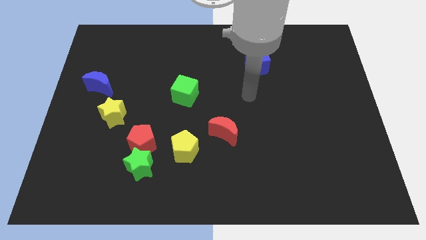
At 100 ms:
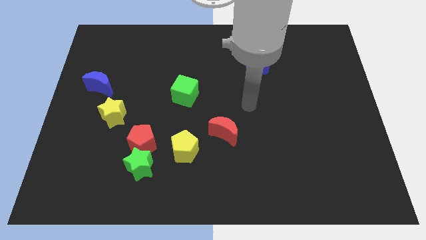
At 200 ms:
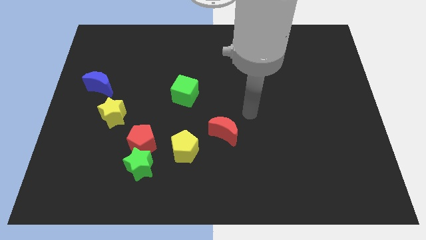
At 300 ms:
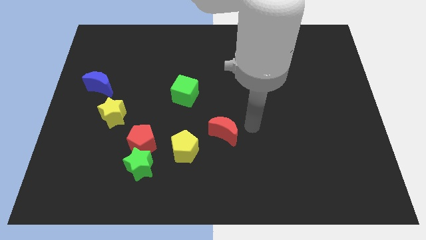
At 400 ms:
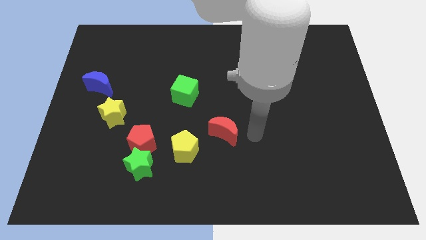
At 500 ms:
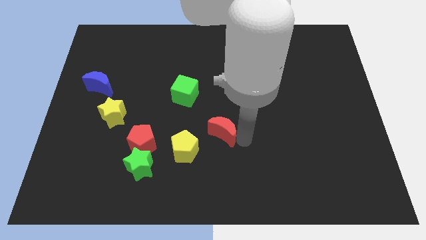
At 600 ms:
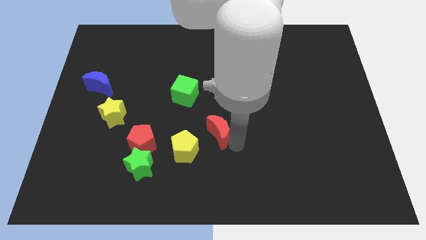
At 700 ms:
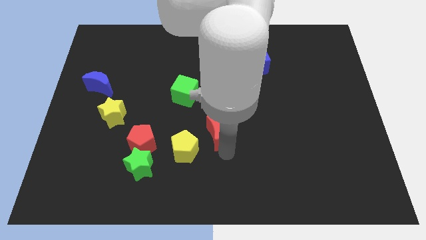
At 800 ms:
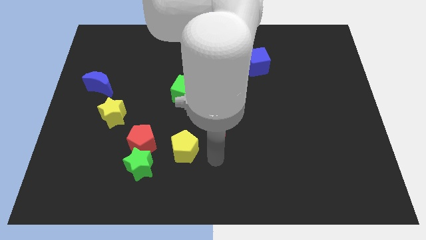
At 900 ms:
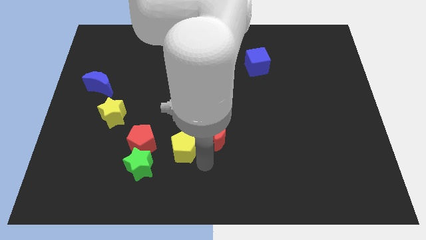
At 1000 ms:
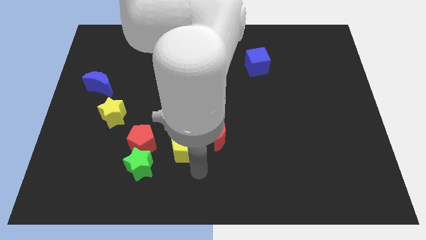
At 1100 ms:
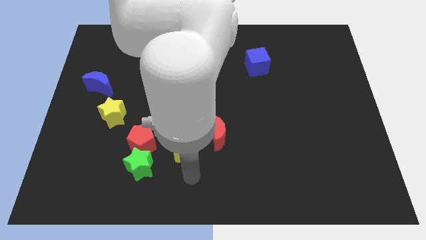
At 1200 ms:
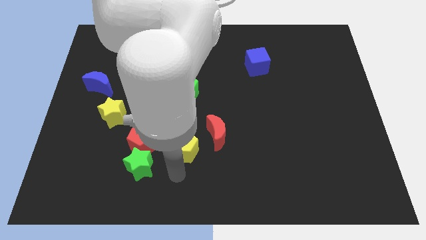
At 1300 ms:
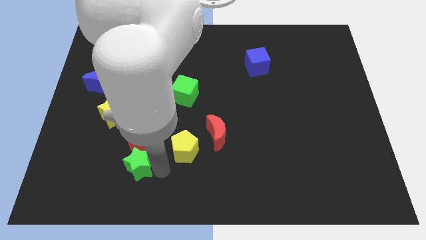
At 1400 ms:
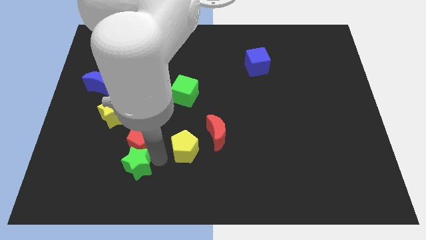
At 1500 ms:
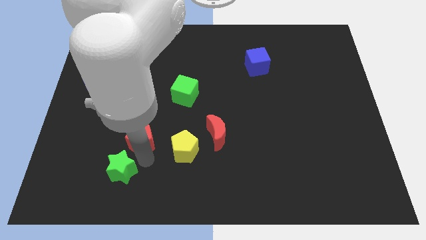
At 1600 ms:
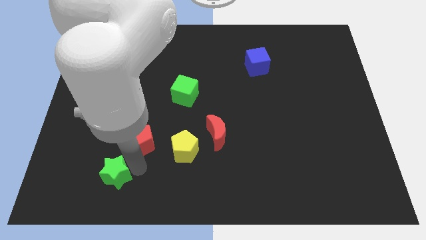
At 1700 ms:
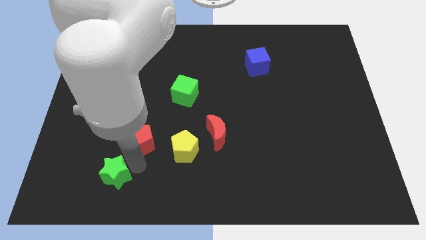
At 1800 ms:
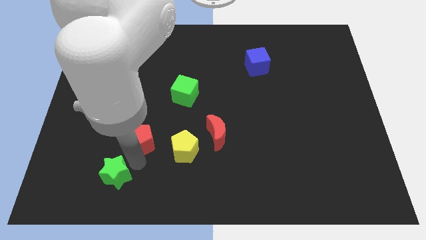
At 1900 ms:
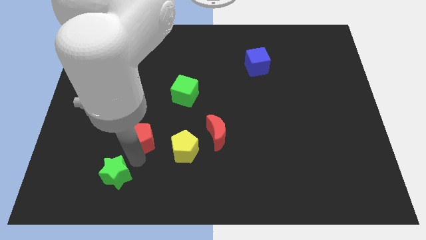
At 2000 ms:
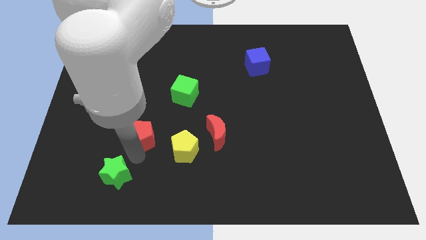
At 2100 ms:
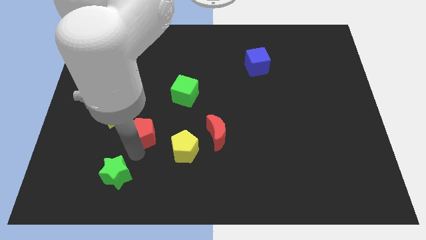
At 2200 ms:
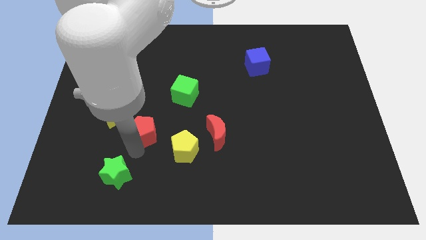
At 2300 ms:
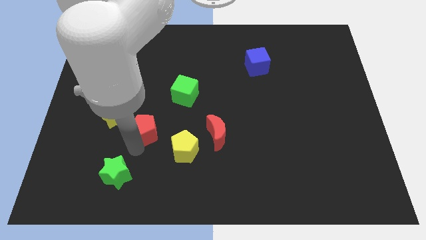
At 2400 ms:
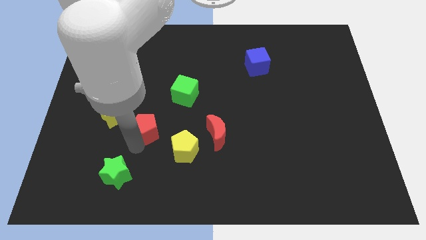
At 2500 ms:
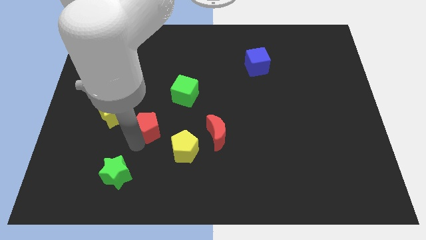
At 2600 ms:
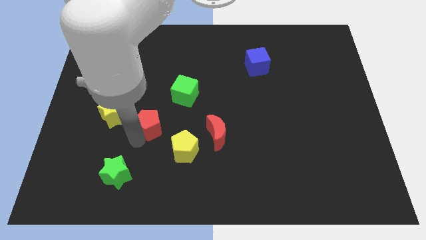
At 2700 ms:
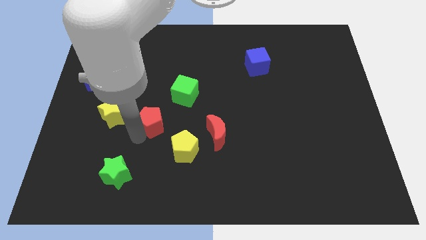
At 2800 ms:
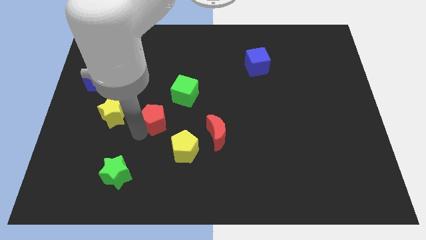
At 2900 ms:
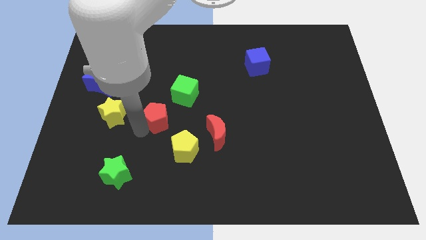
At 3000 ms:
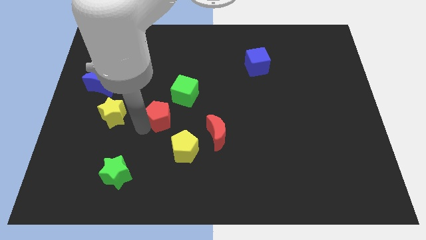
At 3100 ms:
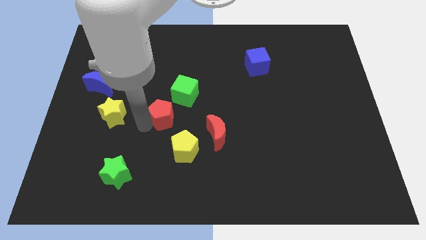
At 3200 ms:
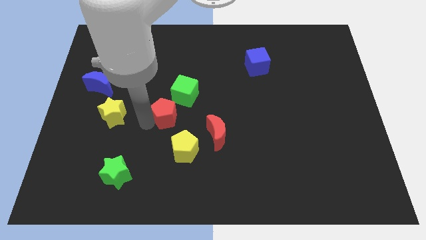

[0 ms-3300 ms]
slightly slide the red pentagon up

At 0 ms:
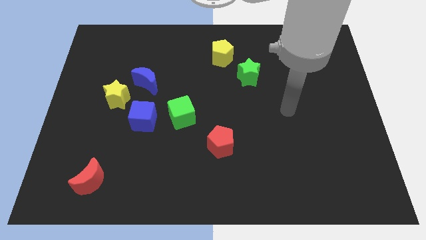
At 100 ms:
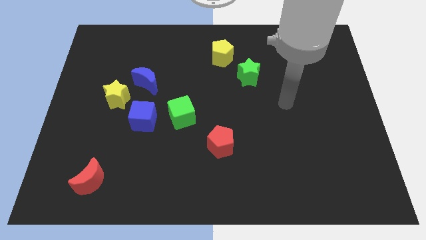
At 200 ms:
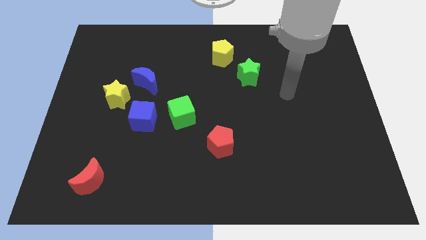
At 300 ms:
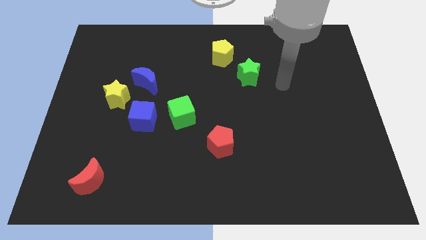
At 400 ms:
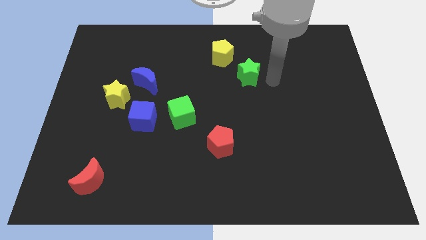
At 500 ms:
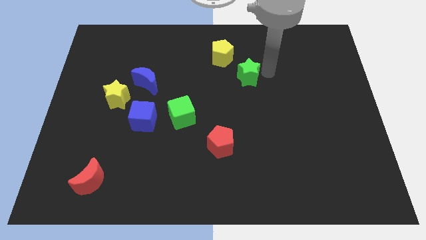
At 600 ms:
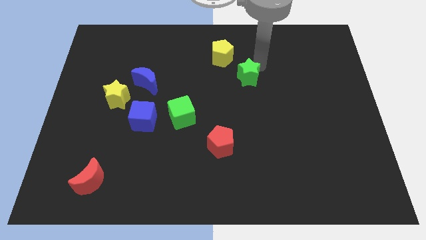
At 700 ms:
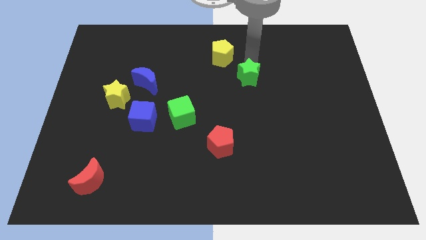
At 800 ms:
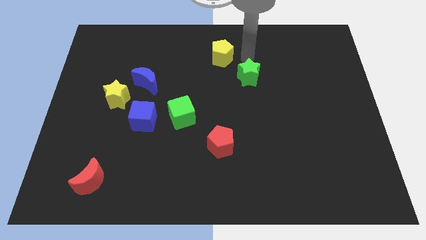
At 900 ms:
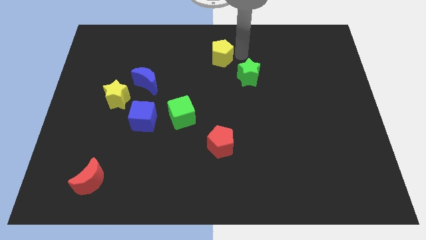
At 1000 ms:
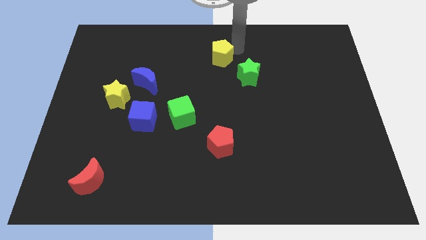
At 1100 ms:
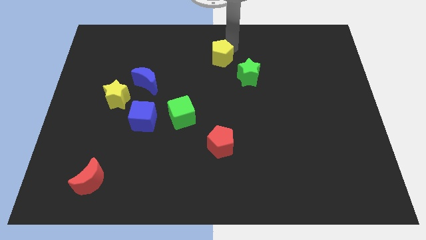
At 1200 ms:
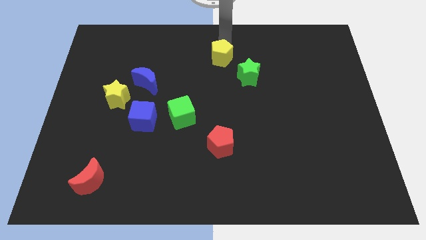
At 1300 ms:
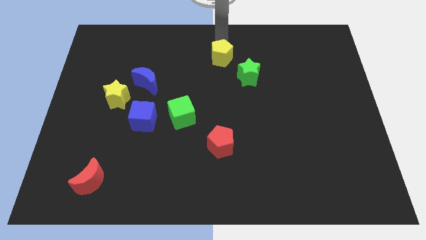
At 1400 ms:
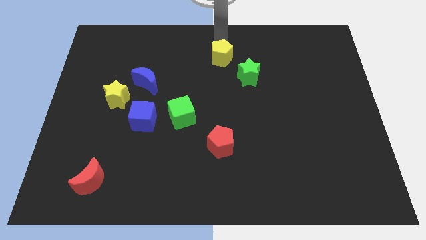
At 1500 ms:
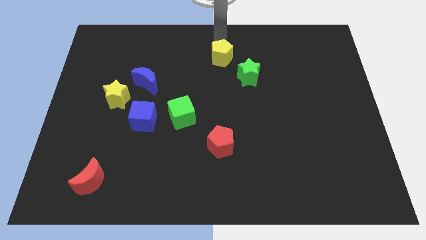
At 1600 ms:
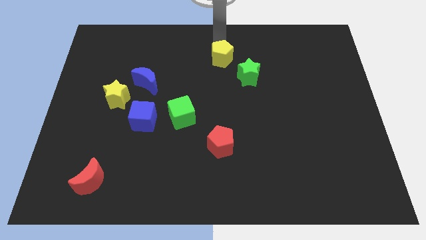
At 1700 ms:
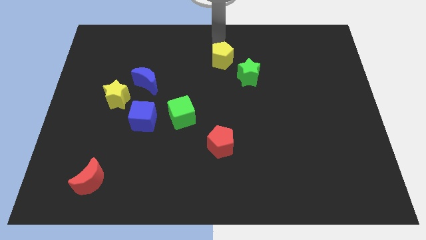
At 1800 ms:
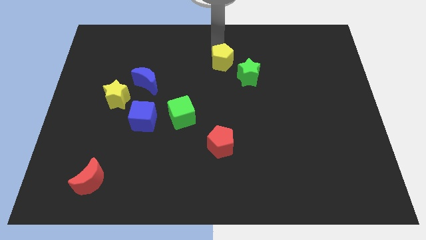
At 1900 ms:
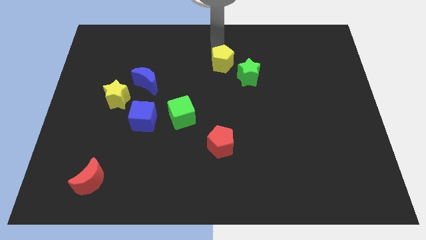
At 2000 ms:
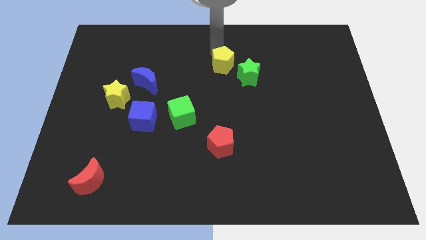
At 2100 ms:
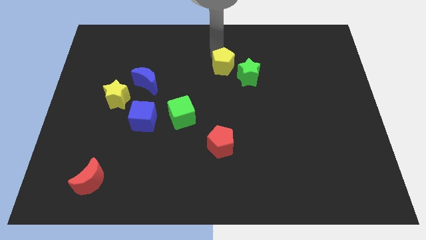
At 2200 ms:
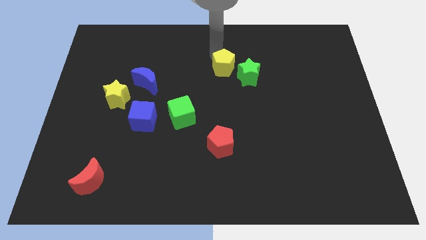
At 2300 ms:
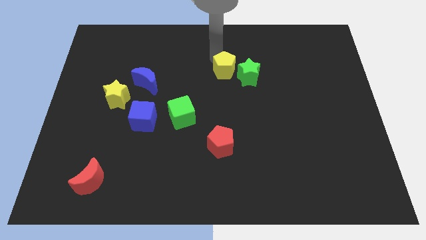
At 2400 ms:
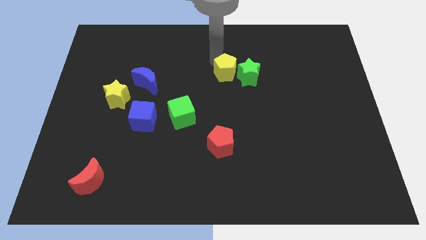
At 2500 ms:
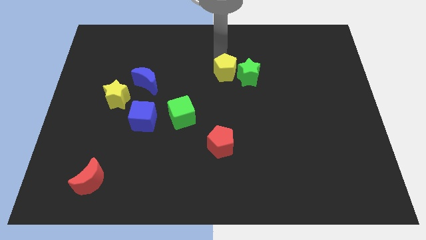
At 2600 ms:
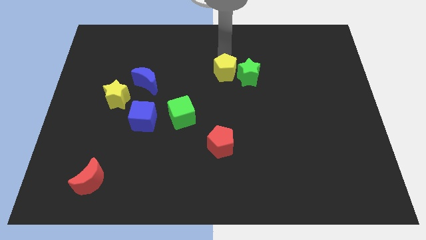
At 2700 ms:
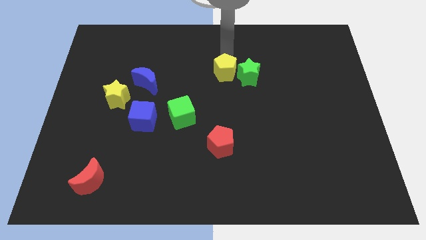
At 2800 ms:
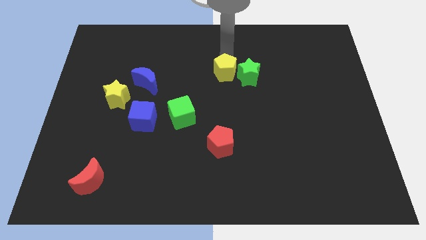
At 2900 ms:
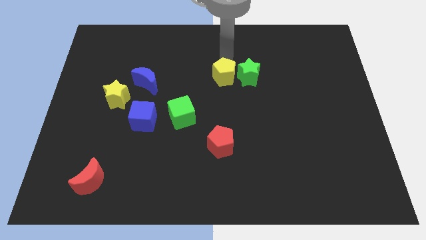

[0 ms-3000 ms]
push the yellow pentagon downwards slightly

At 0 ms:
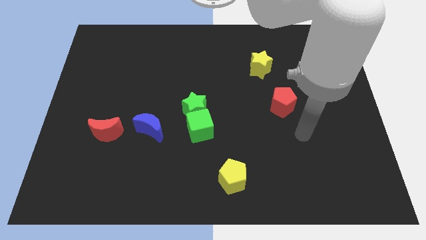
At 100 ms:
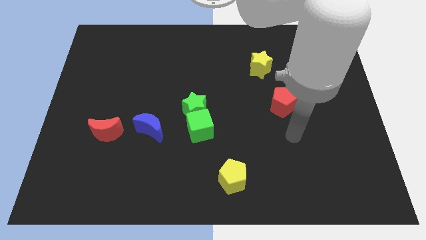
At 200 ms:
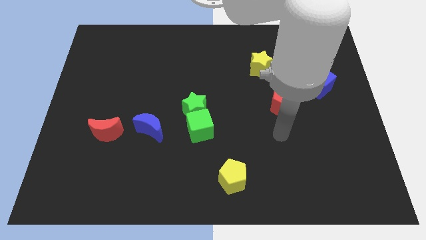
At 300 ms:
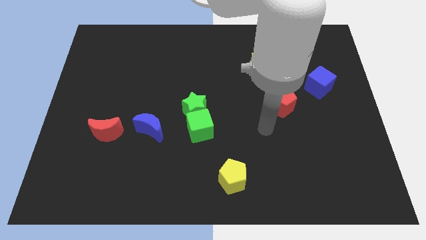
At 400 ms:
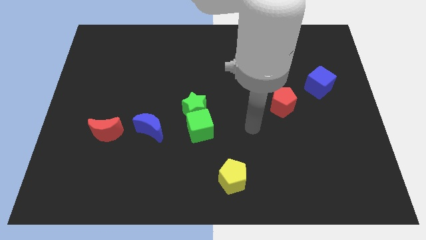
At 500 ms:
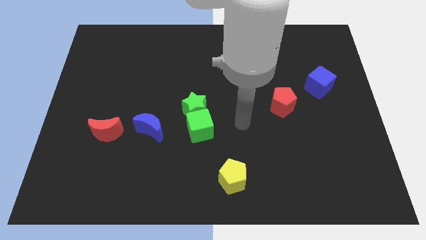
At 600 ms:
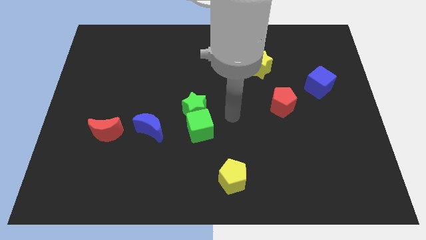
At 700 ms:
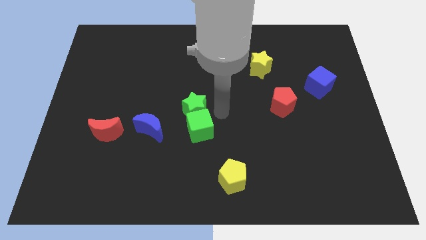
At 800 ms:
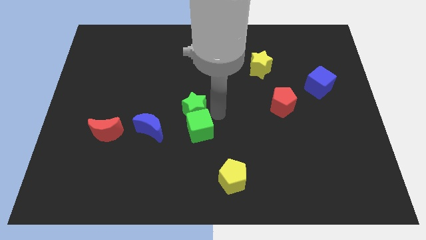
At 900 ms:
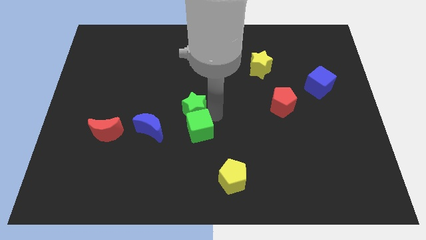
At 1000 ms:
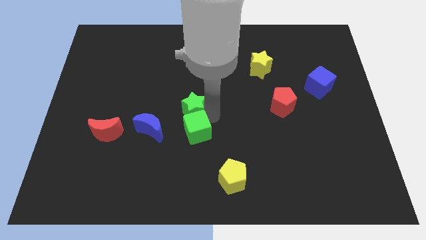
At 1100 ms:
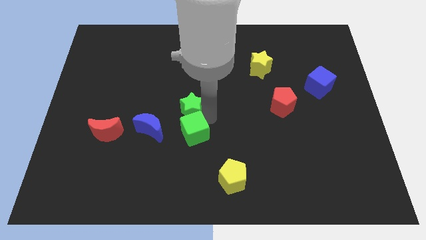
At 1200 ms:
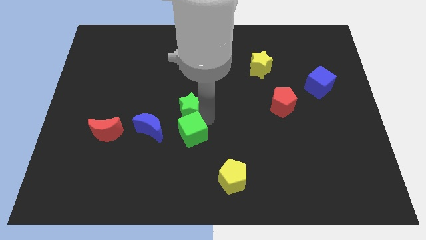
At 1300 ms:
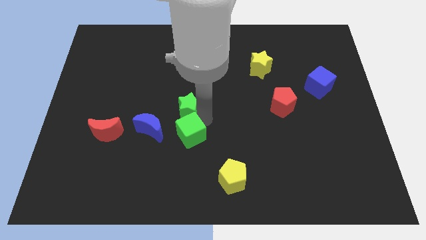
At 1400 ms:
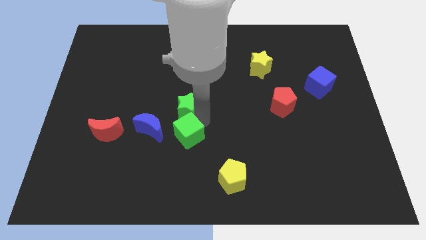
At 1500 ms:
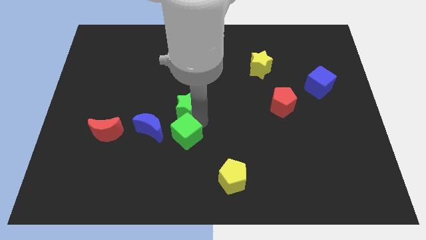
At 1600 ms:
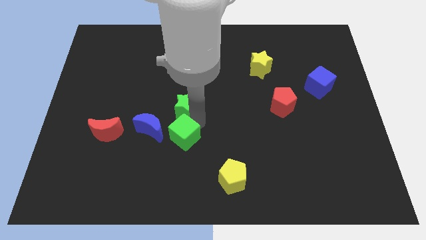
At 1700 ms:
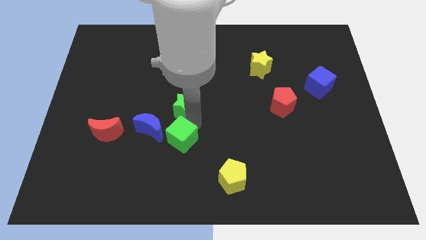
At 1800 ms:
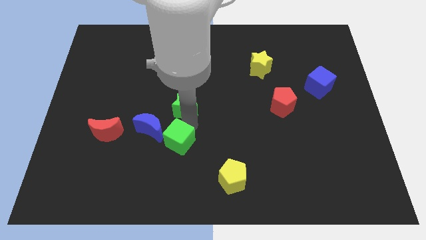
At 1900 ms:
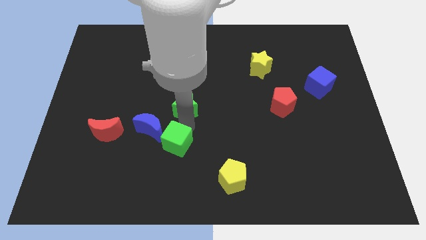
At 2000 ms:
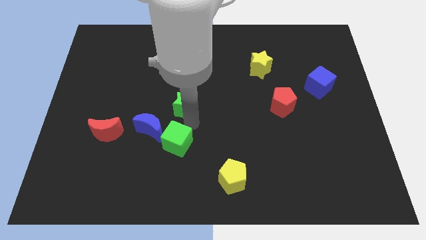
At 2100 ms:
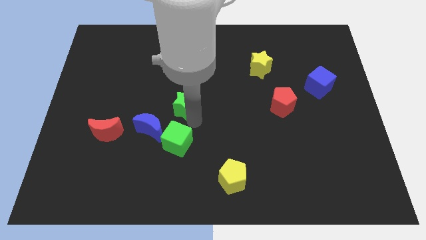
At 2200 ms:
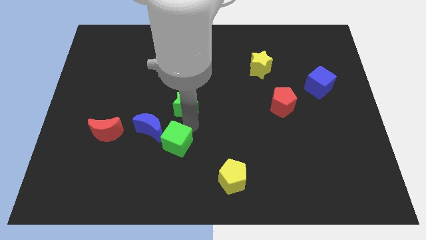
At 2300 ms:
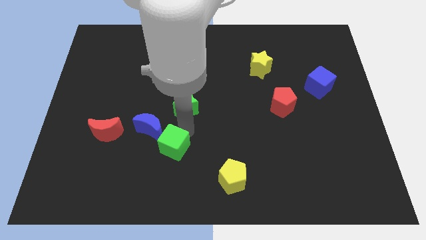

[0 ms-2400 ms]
move the green cube somewhat diagonally down and to the left
